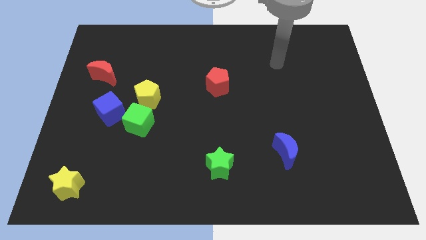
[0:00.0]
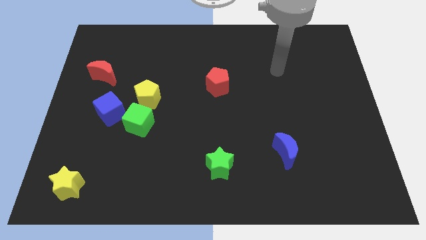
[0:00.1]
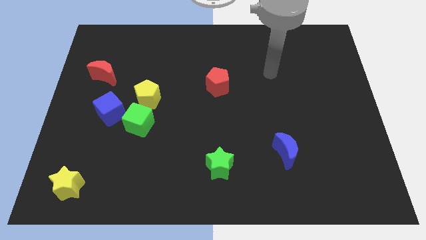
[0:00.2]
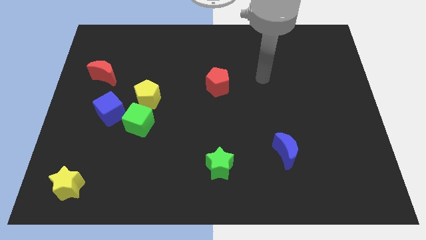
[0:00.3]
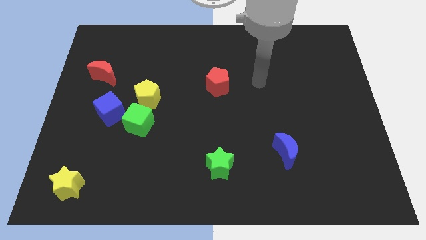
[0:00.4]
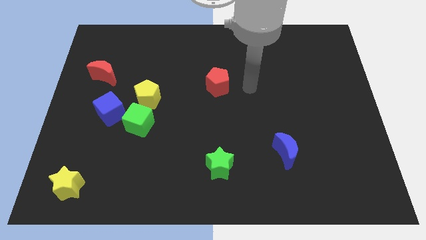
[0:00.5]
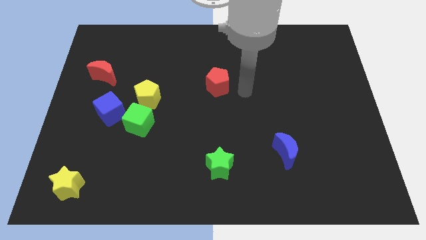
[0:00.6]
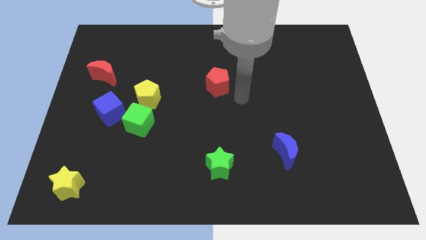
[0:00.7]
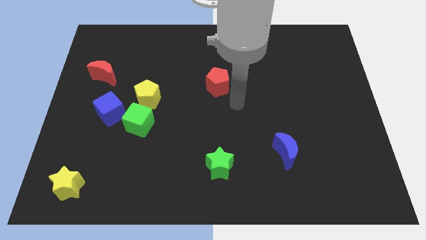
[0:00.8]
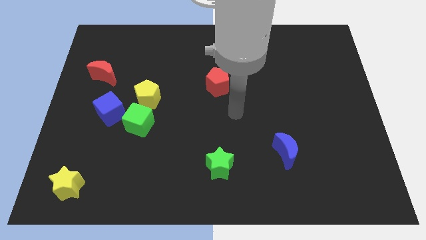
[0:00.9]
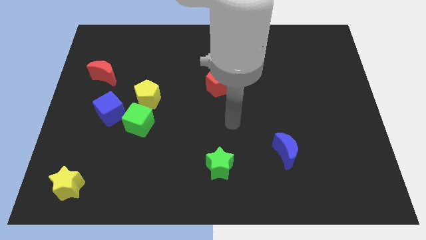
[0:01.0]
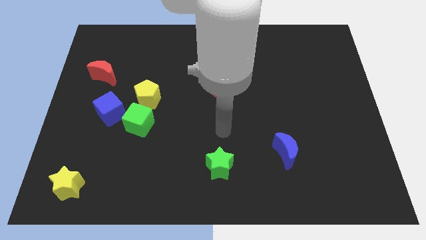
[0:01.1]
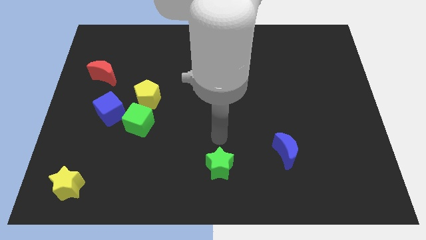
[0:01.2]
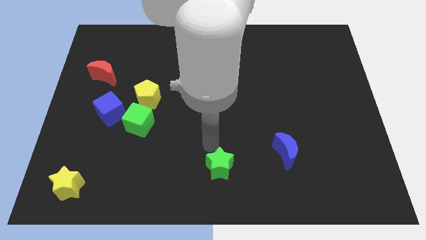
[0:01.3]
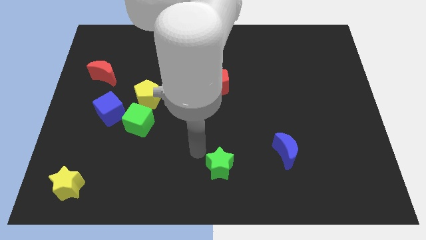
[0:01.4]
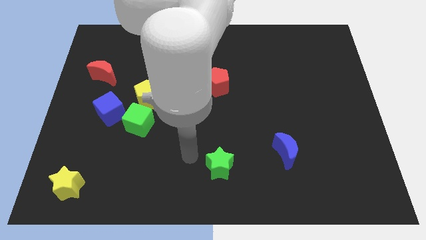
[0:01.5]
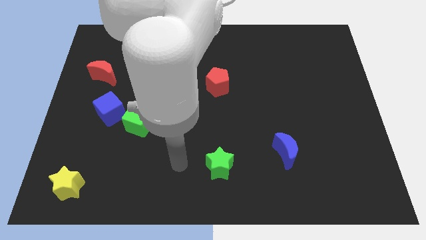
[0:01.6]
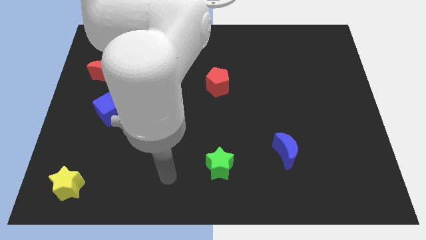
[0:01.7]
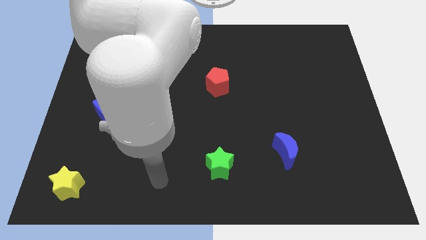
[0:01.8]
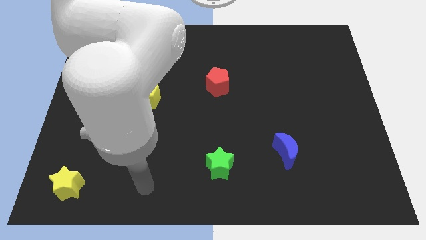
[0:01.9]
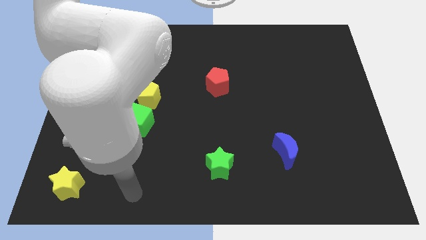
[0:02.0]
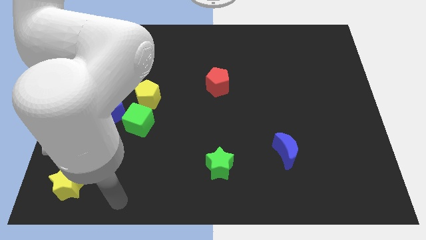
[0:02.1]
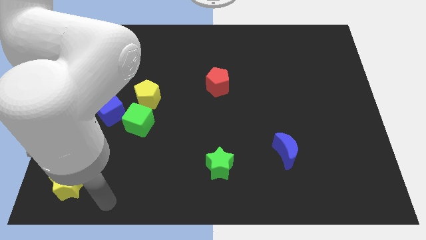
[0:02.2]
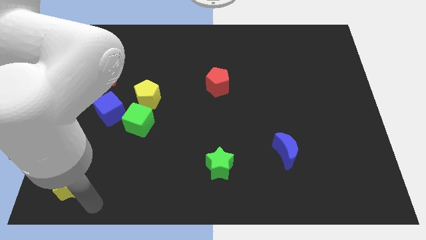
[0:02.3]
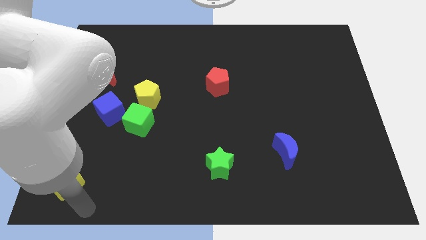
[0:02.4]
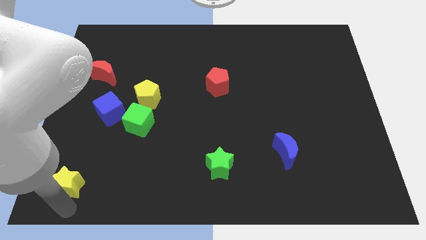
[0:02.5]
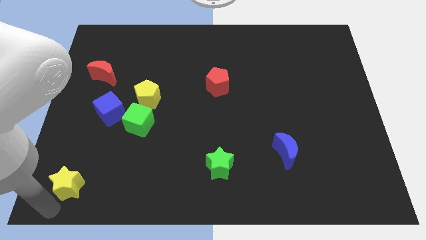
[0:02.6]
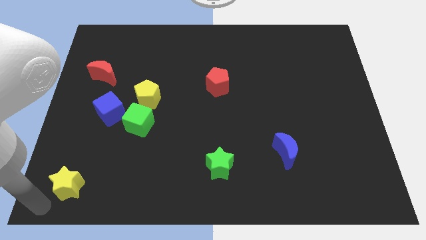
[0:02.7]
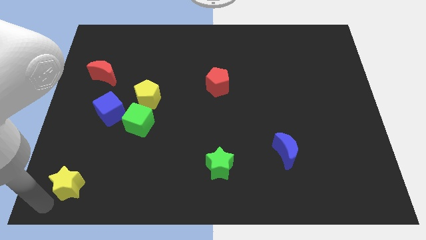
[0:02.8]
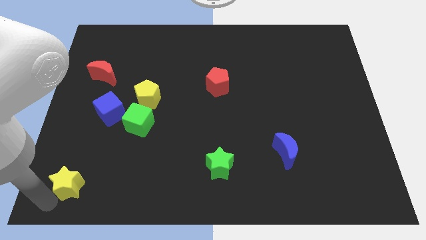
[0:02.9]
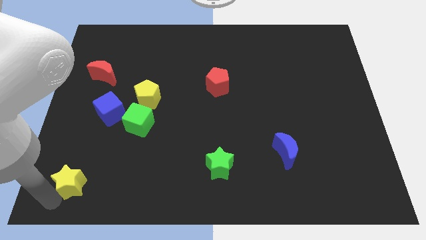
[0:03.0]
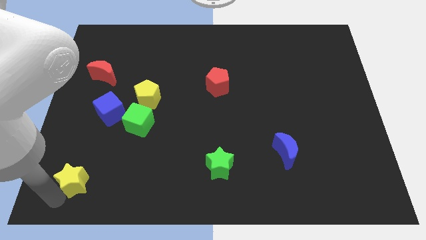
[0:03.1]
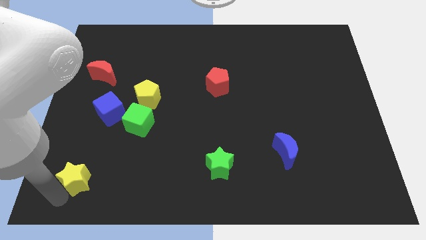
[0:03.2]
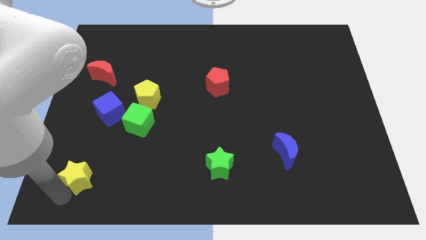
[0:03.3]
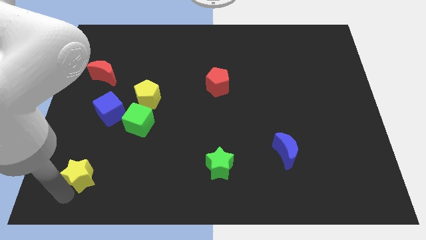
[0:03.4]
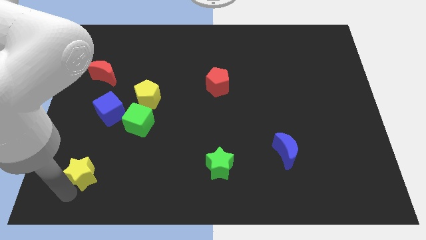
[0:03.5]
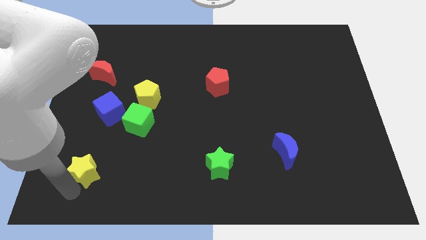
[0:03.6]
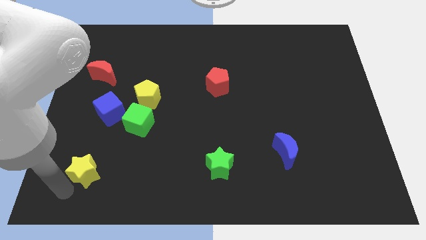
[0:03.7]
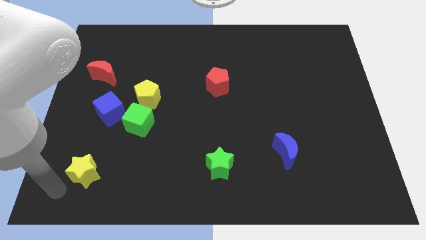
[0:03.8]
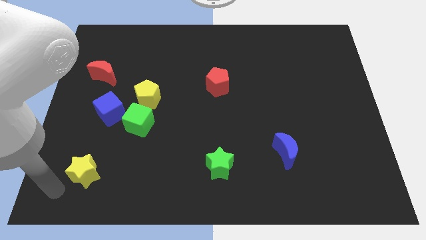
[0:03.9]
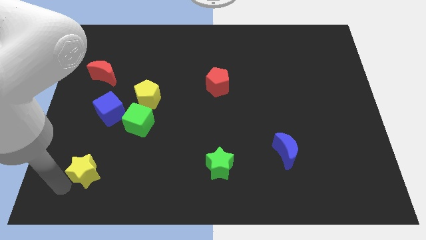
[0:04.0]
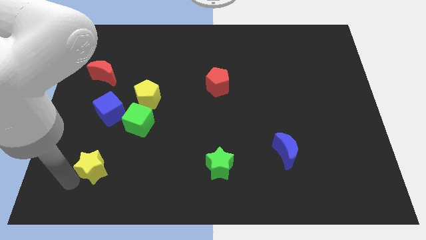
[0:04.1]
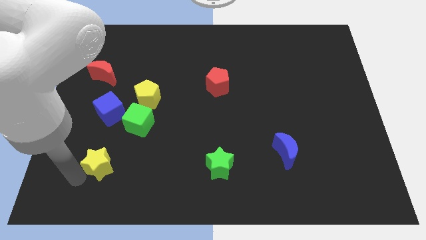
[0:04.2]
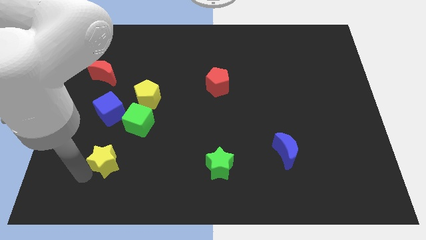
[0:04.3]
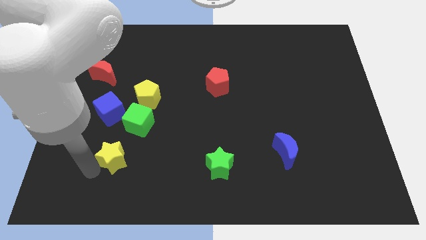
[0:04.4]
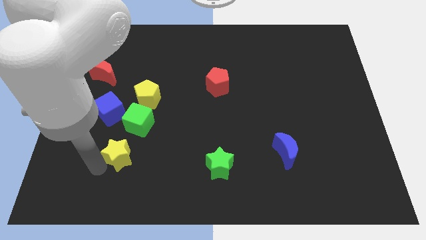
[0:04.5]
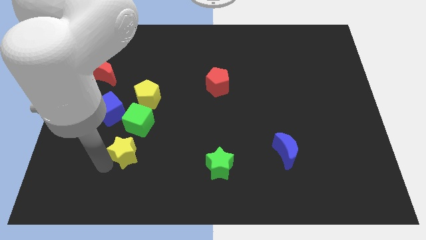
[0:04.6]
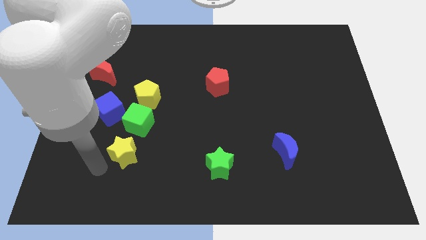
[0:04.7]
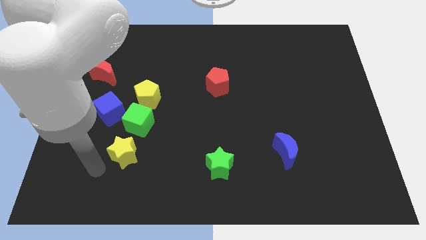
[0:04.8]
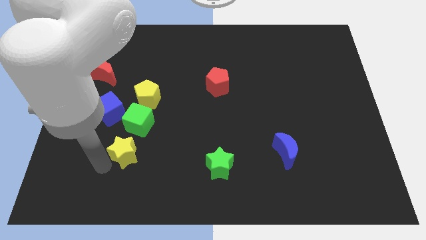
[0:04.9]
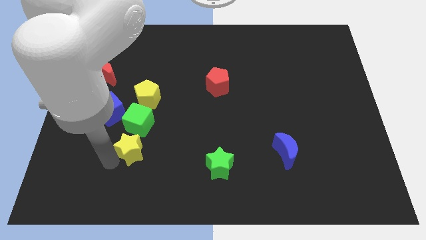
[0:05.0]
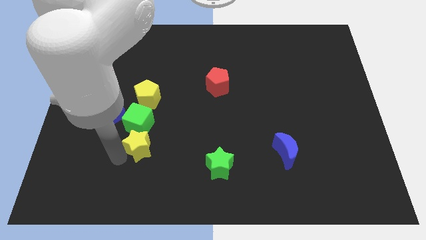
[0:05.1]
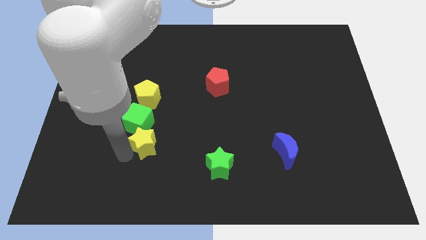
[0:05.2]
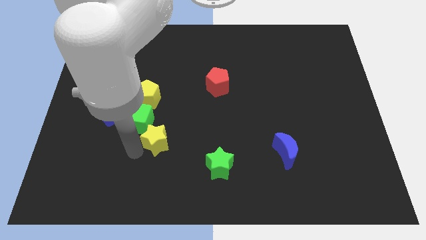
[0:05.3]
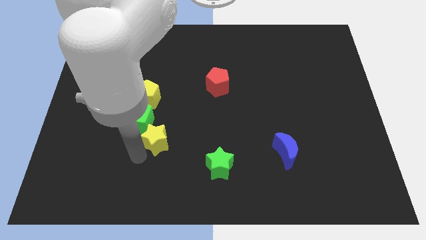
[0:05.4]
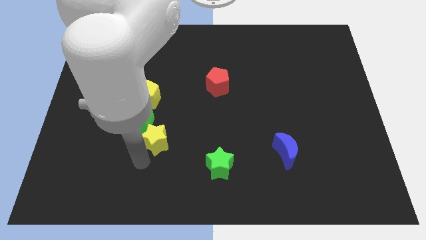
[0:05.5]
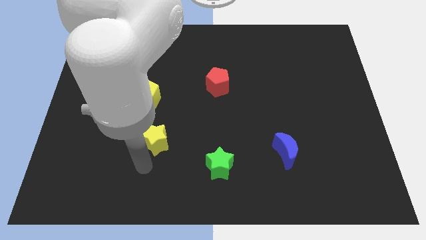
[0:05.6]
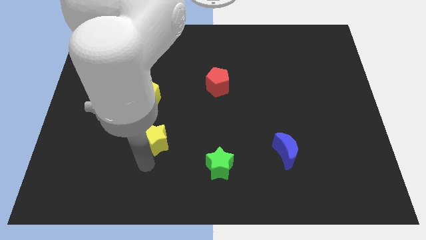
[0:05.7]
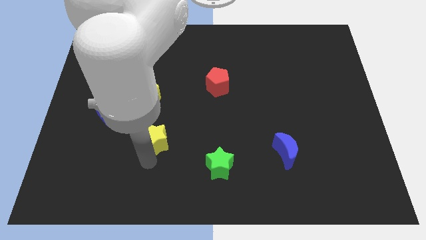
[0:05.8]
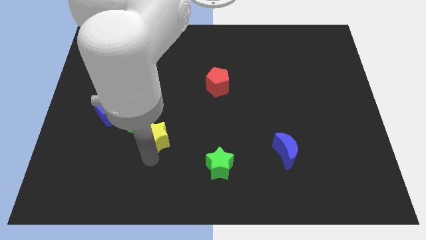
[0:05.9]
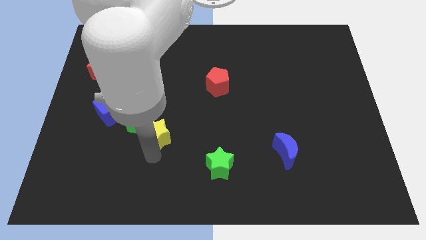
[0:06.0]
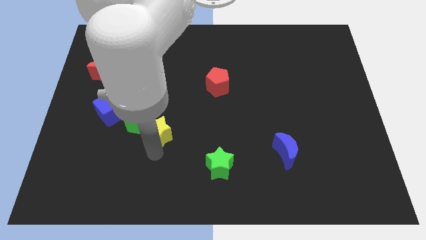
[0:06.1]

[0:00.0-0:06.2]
move the yellow star diagonally down and to the right of the yellow pentagon
